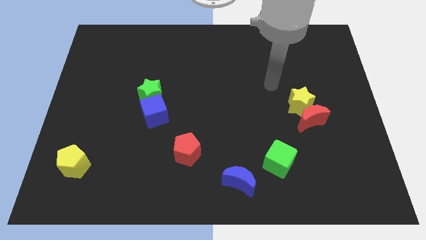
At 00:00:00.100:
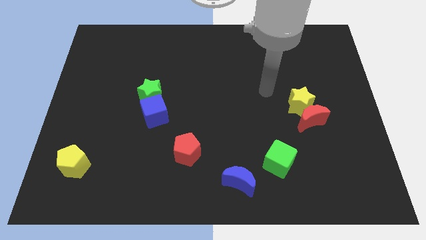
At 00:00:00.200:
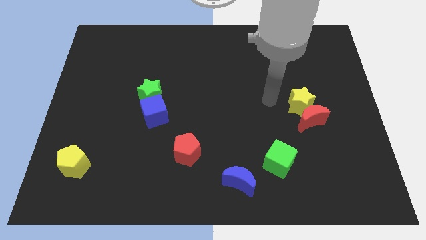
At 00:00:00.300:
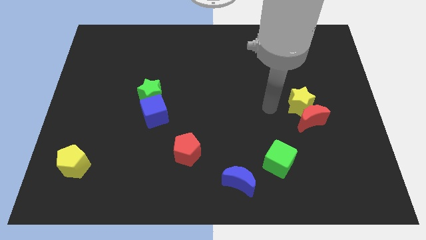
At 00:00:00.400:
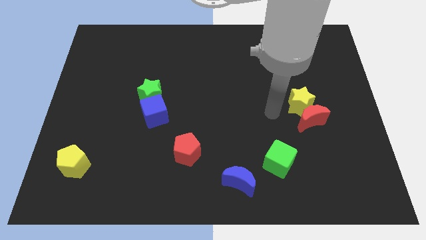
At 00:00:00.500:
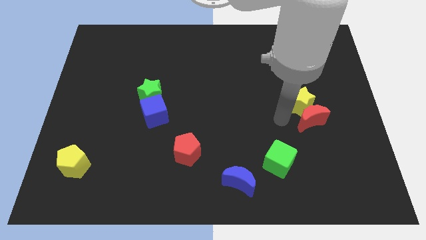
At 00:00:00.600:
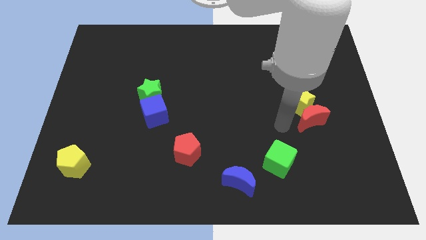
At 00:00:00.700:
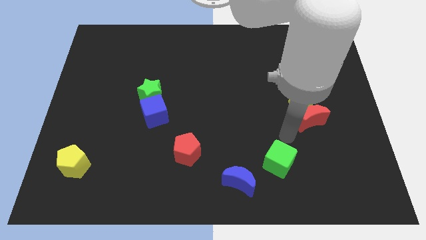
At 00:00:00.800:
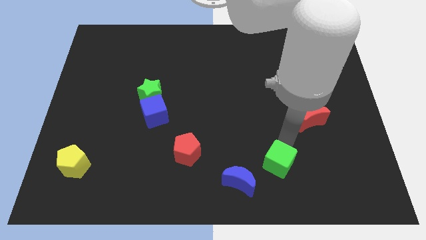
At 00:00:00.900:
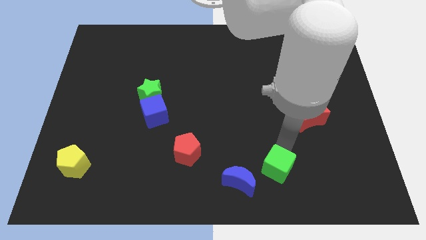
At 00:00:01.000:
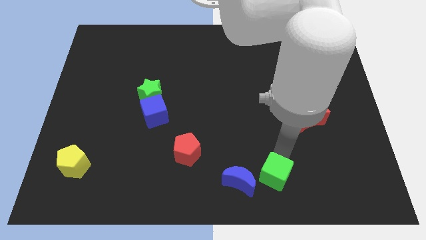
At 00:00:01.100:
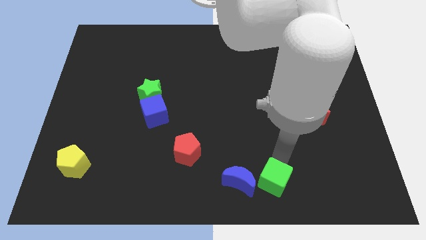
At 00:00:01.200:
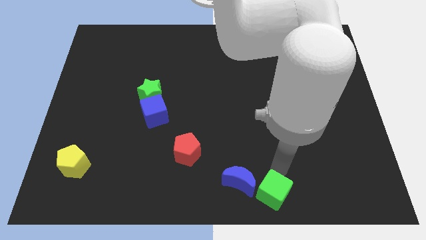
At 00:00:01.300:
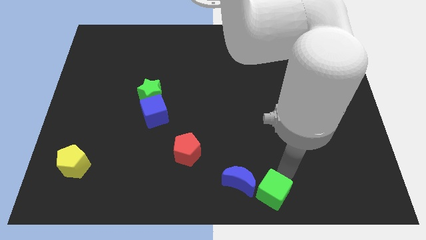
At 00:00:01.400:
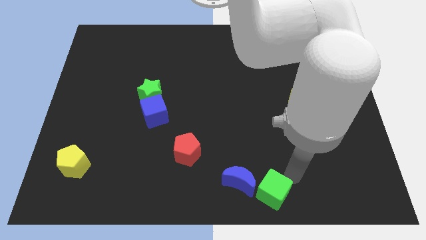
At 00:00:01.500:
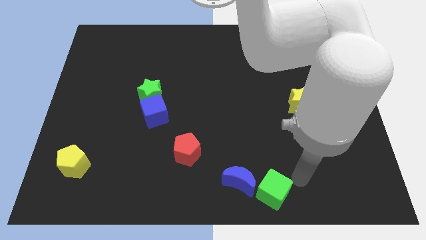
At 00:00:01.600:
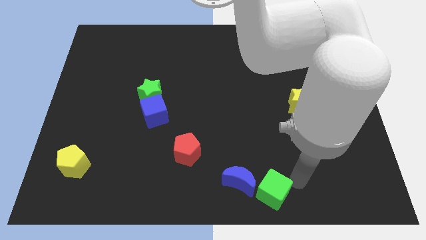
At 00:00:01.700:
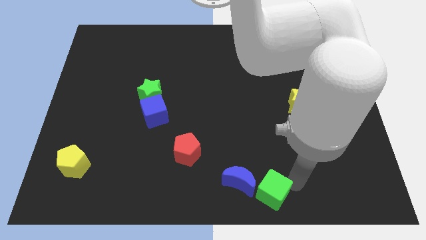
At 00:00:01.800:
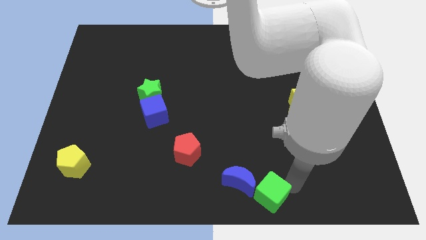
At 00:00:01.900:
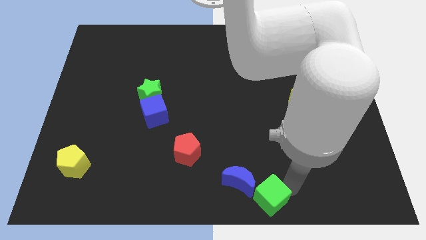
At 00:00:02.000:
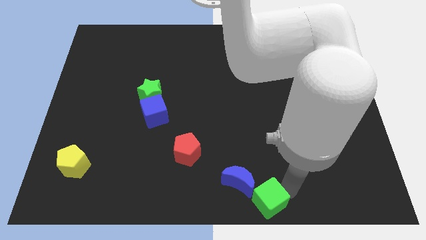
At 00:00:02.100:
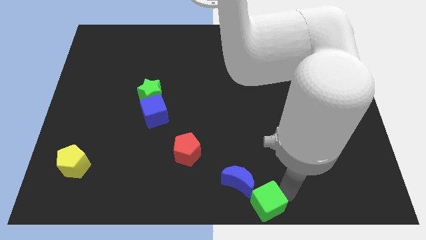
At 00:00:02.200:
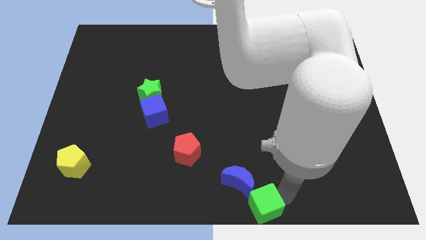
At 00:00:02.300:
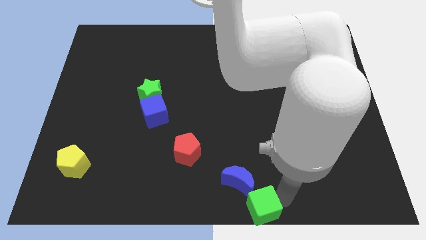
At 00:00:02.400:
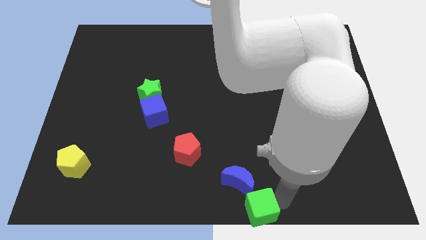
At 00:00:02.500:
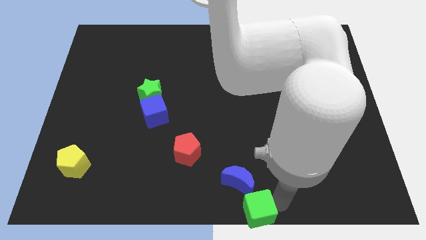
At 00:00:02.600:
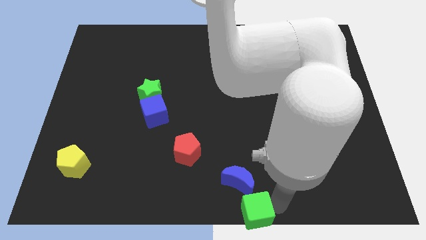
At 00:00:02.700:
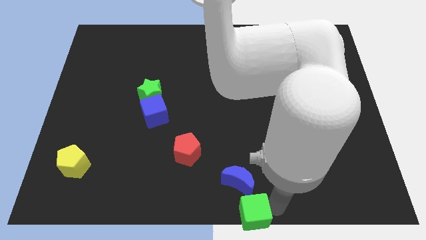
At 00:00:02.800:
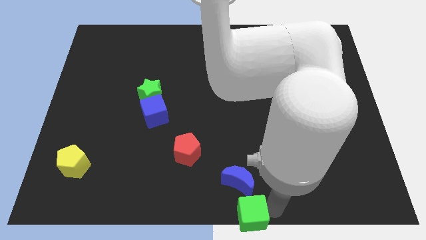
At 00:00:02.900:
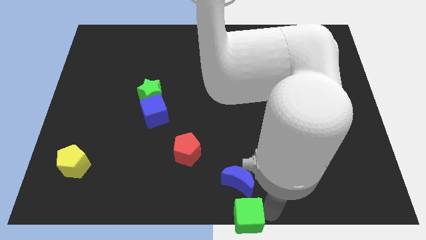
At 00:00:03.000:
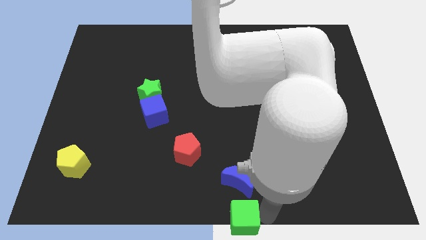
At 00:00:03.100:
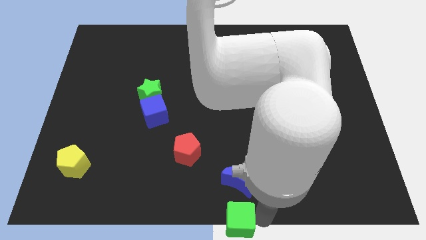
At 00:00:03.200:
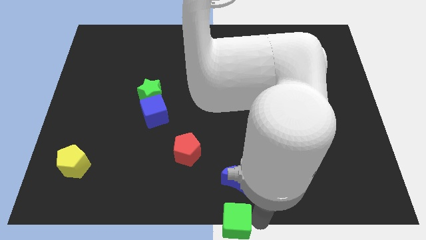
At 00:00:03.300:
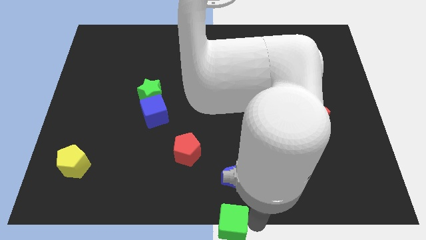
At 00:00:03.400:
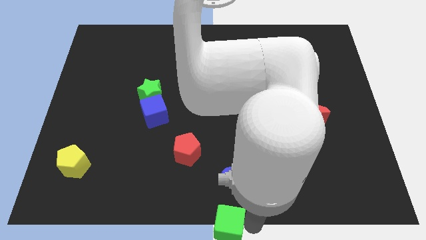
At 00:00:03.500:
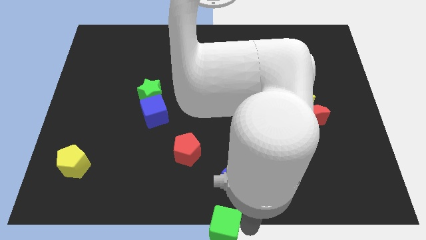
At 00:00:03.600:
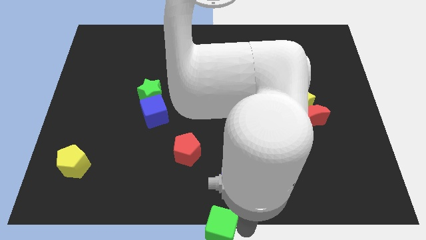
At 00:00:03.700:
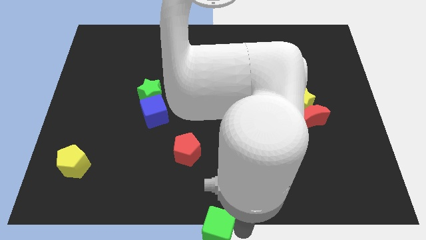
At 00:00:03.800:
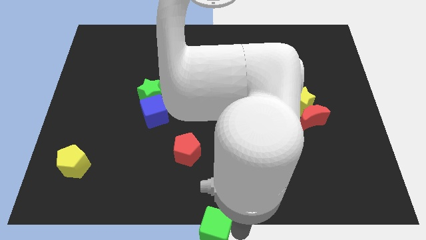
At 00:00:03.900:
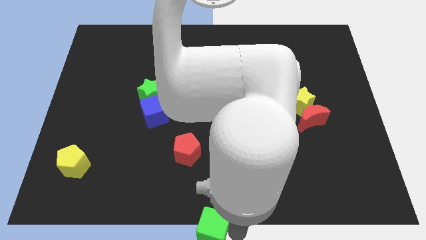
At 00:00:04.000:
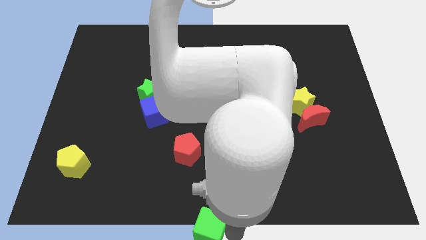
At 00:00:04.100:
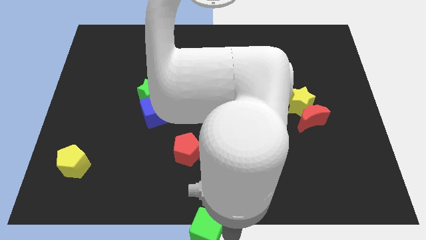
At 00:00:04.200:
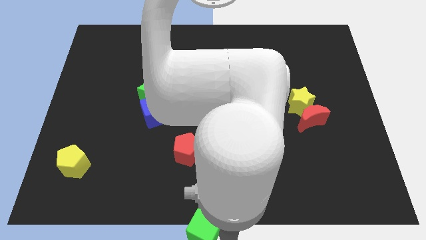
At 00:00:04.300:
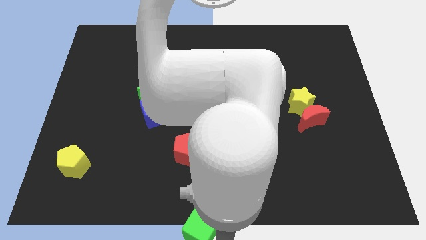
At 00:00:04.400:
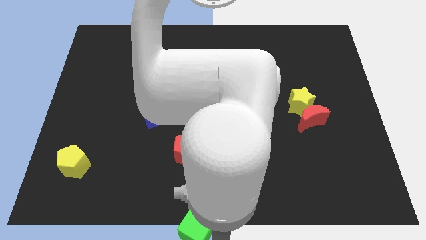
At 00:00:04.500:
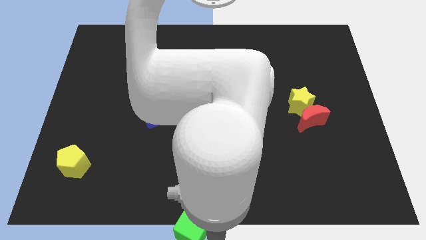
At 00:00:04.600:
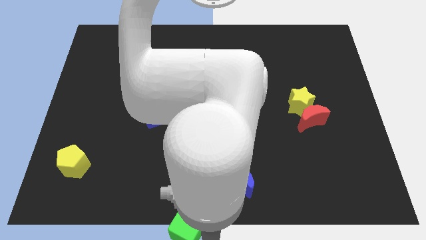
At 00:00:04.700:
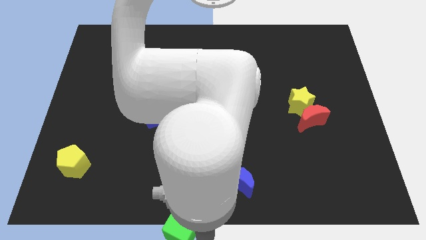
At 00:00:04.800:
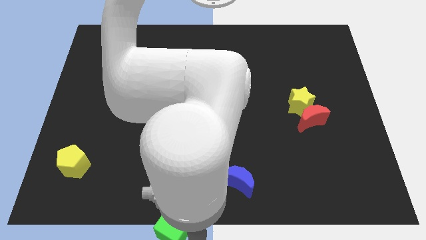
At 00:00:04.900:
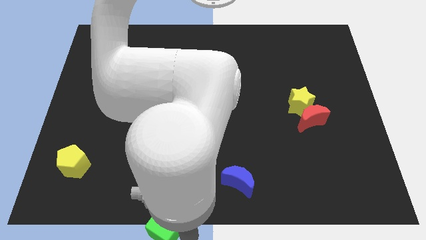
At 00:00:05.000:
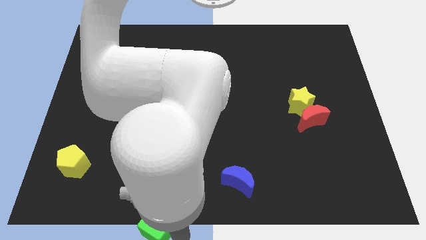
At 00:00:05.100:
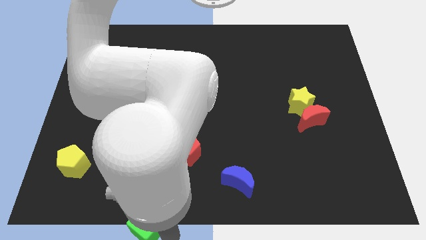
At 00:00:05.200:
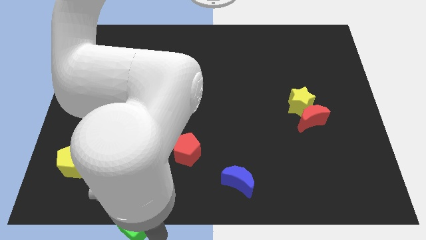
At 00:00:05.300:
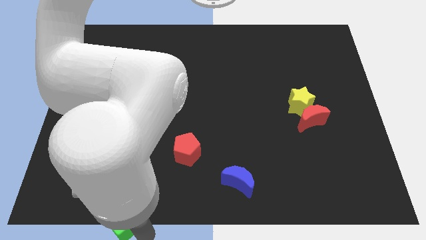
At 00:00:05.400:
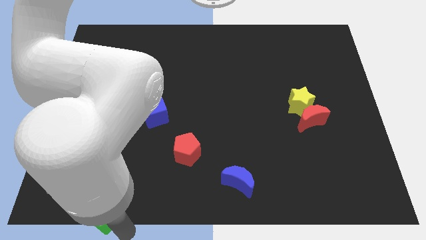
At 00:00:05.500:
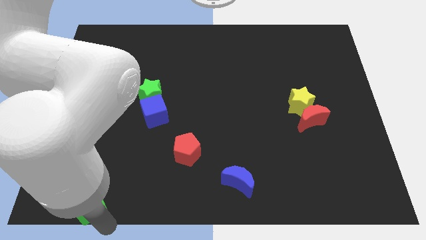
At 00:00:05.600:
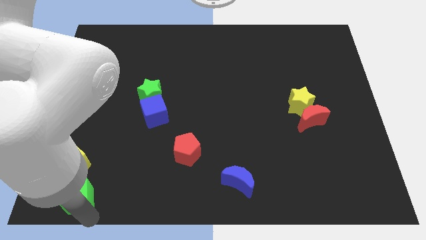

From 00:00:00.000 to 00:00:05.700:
put the green cube to the bottom left corner

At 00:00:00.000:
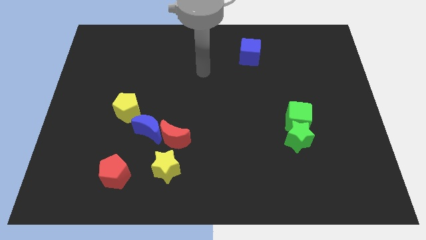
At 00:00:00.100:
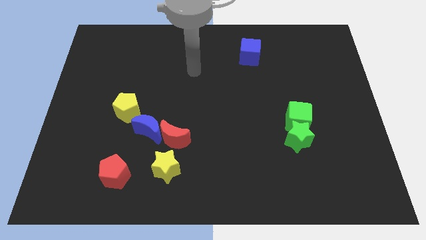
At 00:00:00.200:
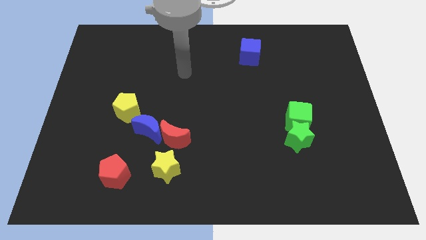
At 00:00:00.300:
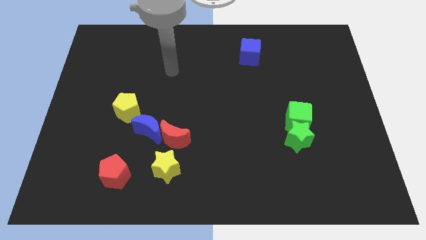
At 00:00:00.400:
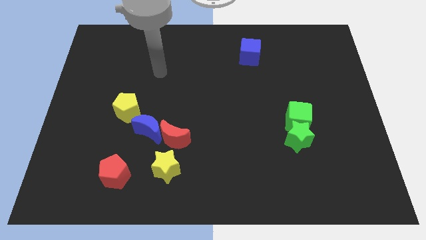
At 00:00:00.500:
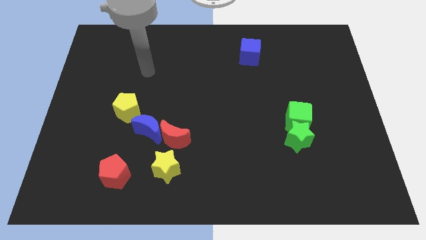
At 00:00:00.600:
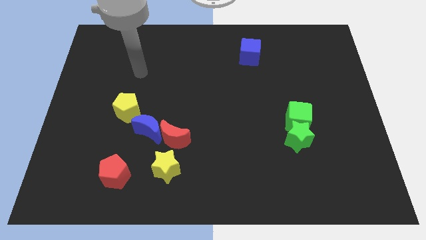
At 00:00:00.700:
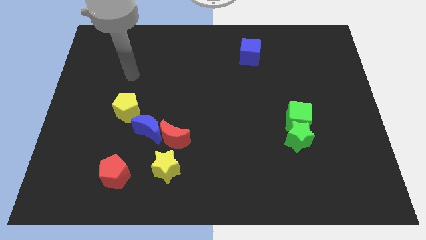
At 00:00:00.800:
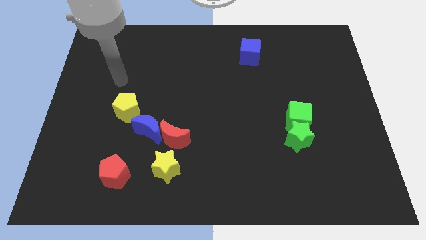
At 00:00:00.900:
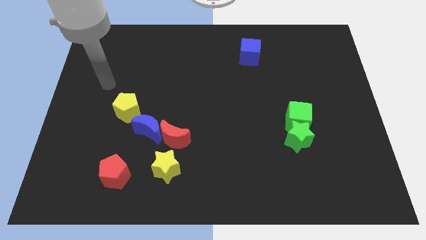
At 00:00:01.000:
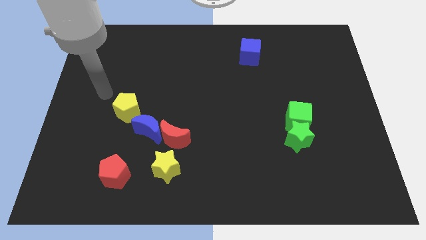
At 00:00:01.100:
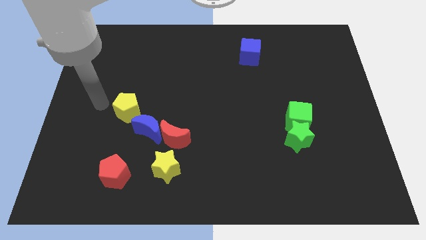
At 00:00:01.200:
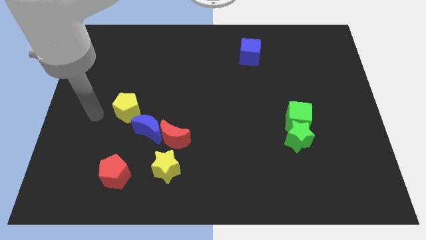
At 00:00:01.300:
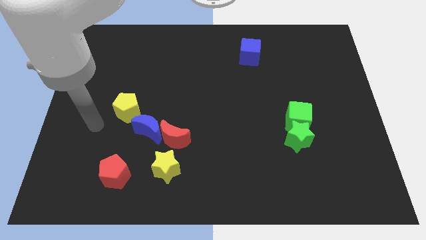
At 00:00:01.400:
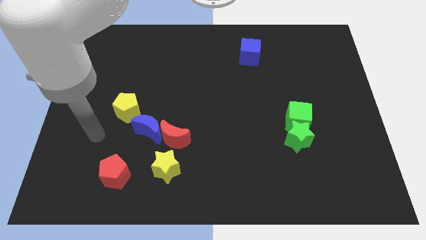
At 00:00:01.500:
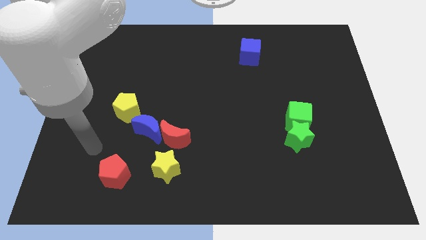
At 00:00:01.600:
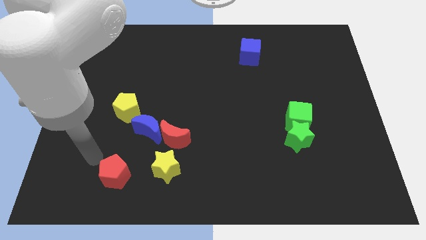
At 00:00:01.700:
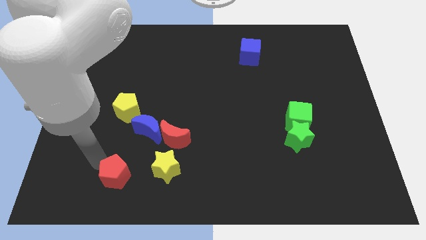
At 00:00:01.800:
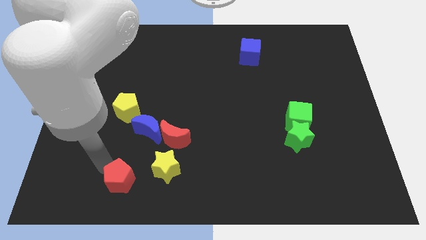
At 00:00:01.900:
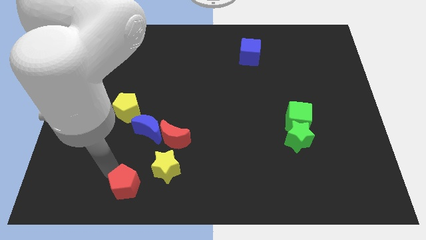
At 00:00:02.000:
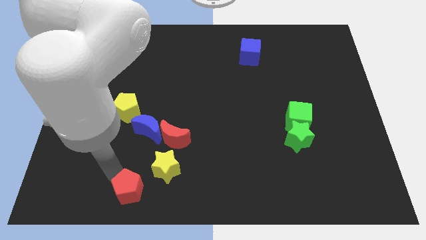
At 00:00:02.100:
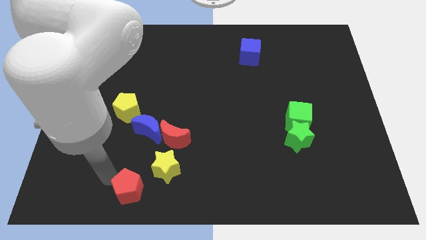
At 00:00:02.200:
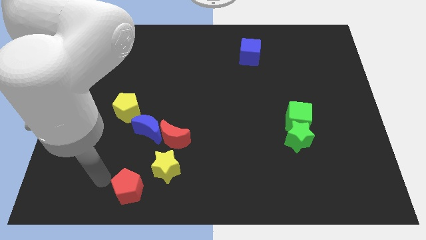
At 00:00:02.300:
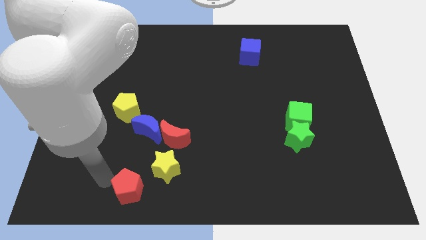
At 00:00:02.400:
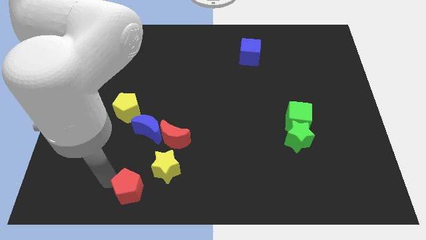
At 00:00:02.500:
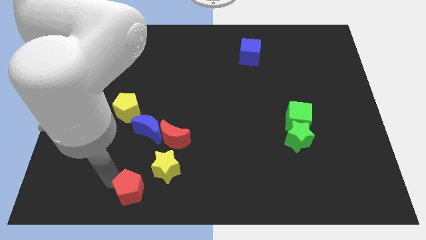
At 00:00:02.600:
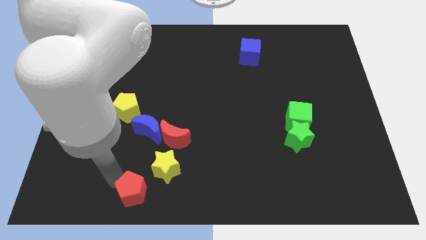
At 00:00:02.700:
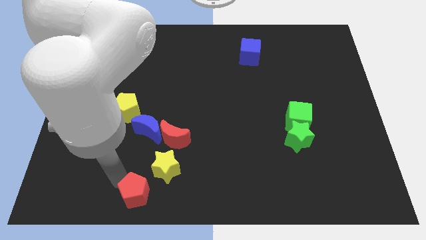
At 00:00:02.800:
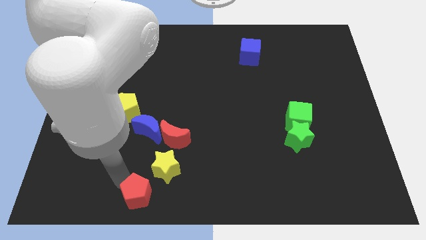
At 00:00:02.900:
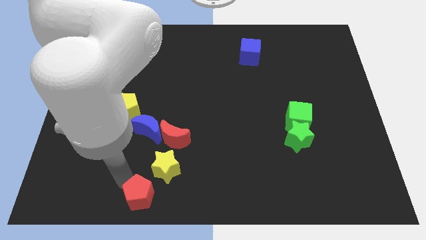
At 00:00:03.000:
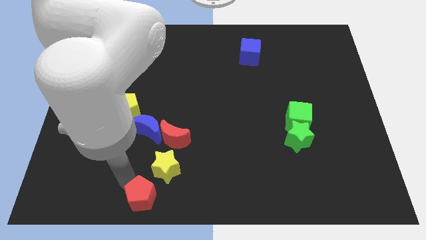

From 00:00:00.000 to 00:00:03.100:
move the red pentagon to the bottom side
